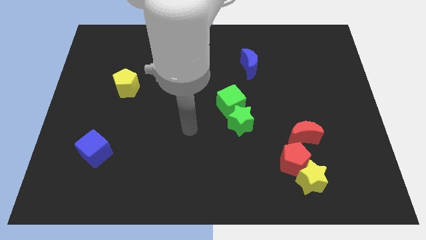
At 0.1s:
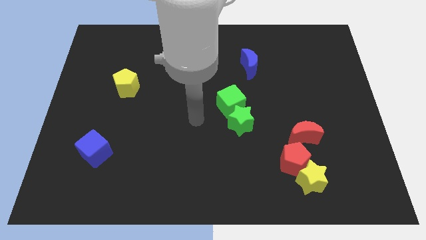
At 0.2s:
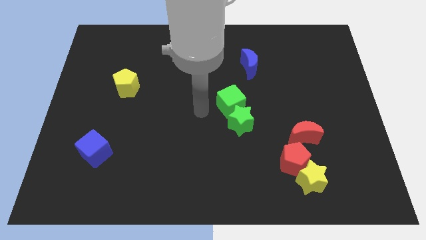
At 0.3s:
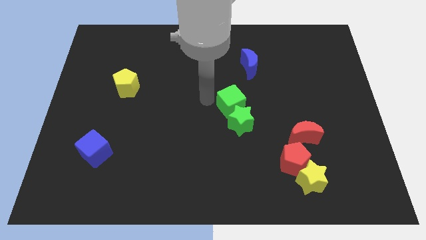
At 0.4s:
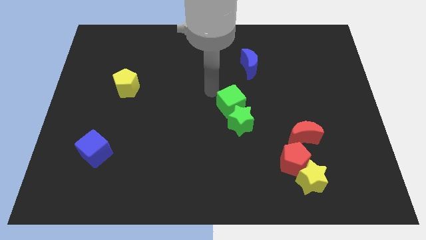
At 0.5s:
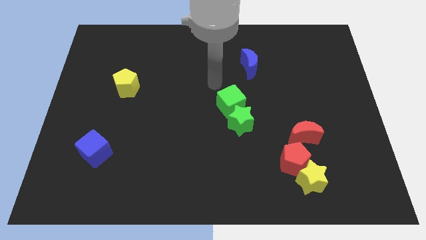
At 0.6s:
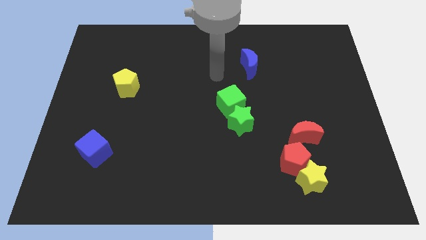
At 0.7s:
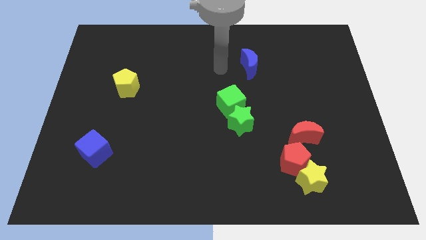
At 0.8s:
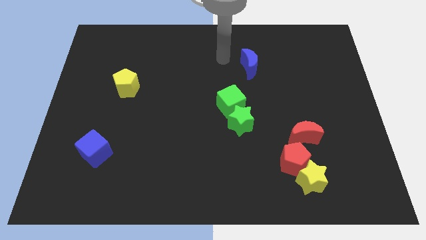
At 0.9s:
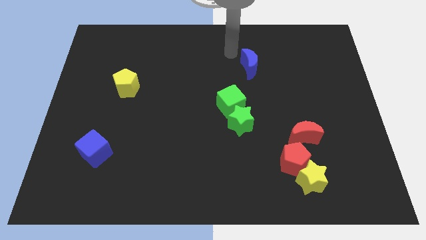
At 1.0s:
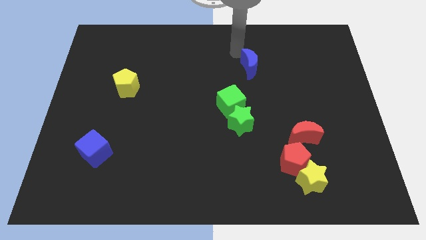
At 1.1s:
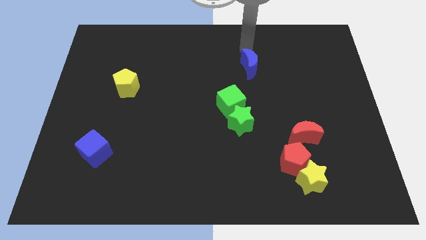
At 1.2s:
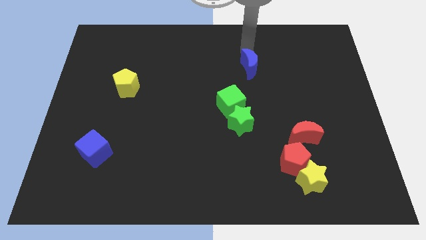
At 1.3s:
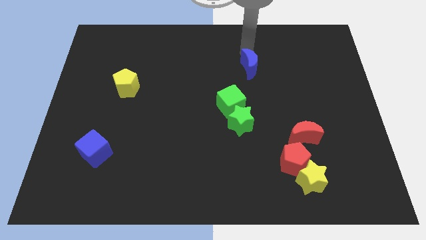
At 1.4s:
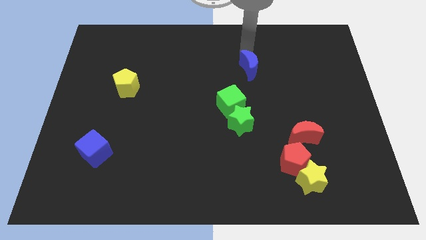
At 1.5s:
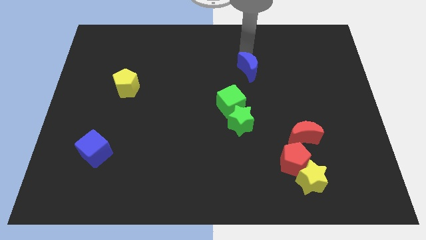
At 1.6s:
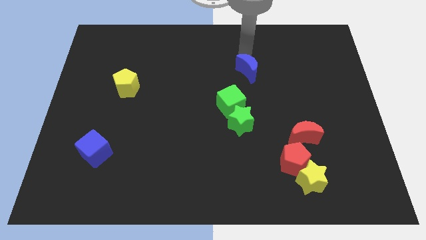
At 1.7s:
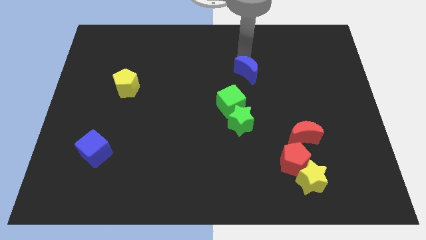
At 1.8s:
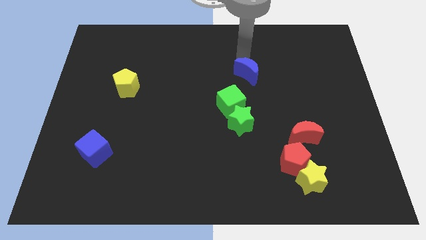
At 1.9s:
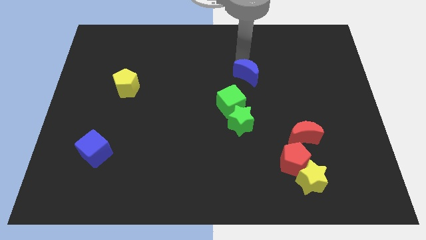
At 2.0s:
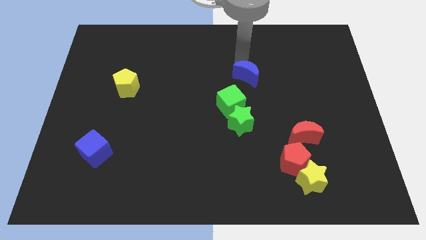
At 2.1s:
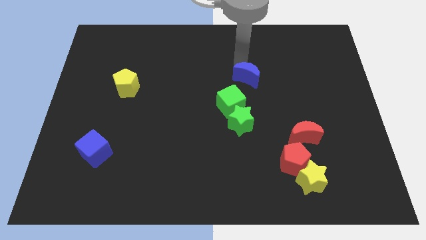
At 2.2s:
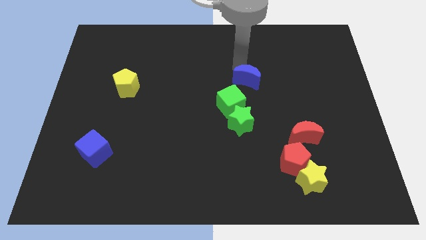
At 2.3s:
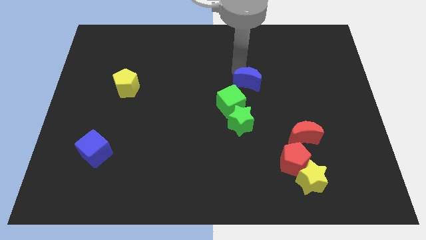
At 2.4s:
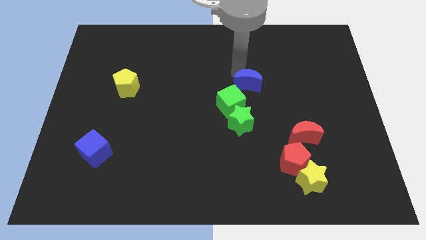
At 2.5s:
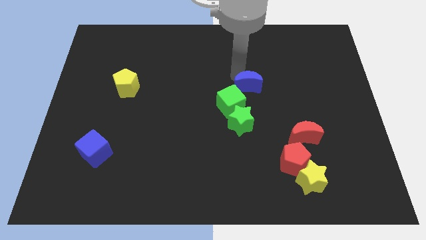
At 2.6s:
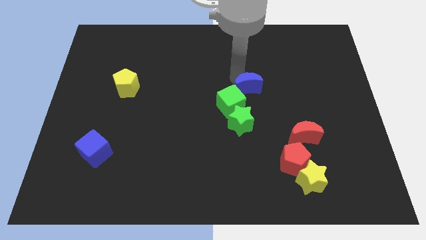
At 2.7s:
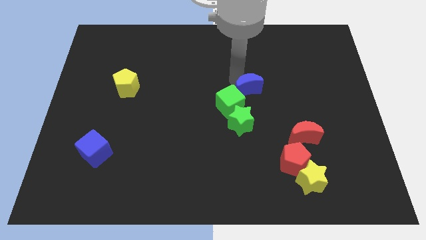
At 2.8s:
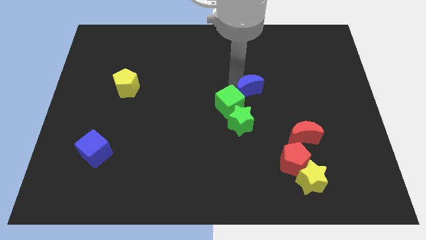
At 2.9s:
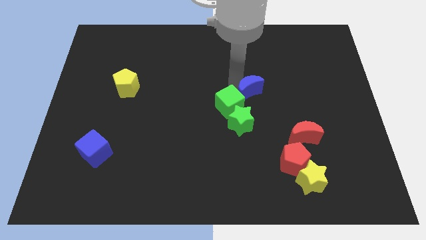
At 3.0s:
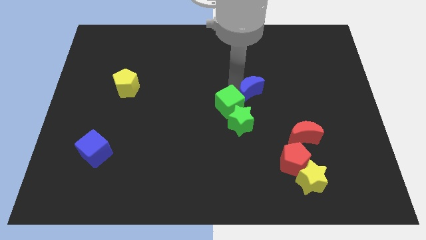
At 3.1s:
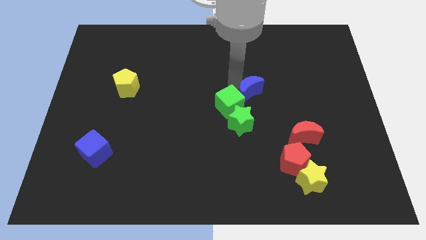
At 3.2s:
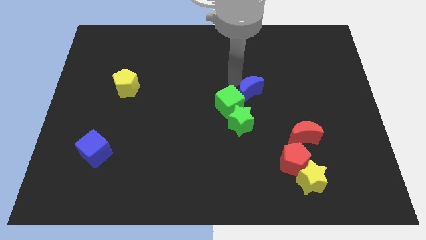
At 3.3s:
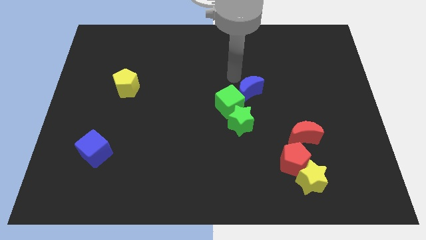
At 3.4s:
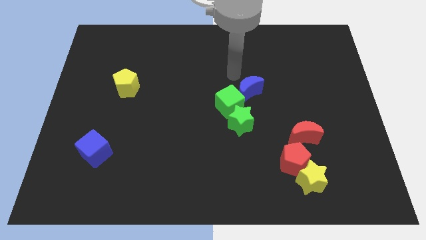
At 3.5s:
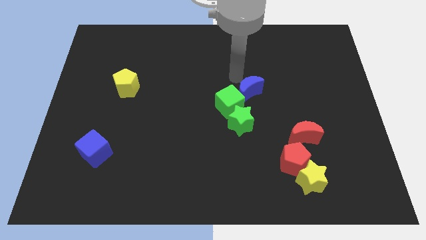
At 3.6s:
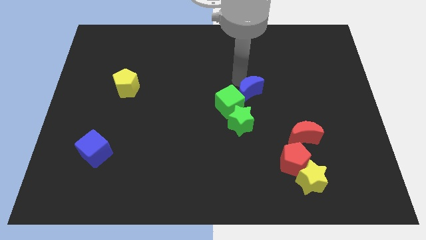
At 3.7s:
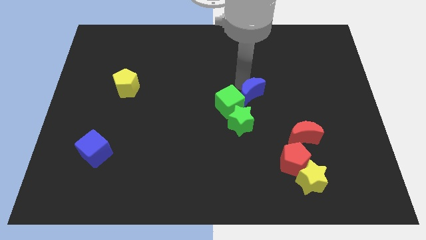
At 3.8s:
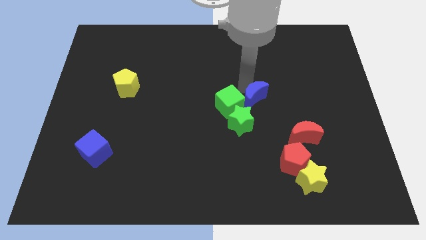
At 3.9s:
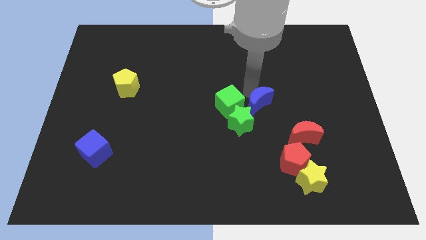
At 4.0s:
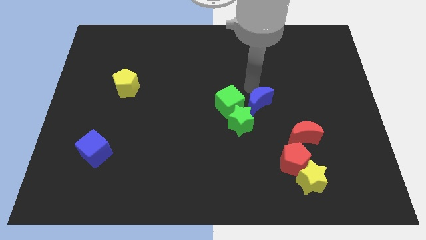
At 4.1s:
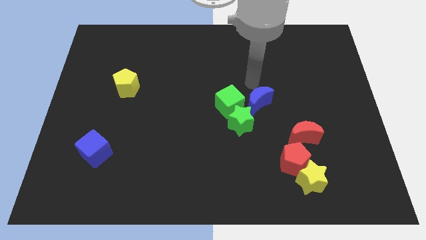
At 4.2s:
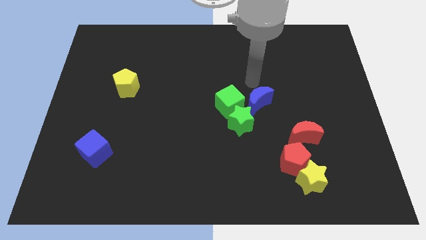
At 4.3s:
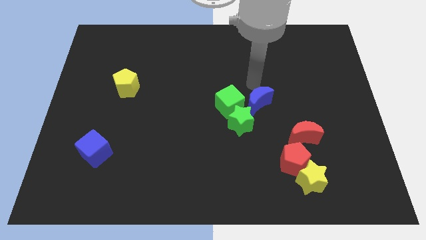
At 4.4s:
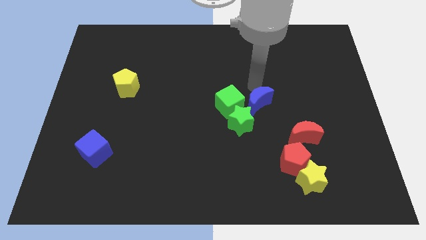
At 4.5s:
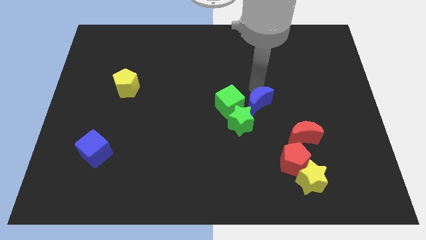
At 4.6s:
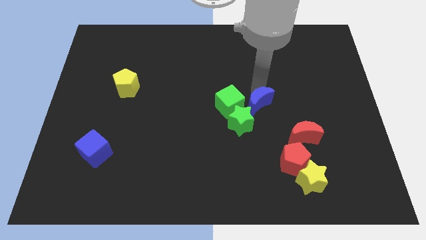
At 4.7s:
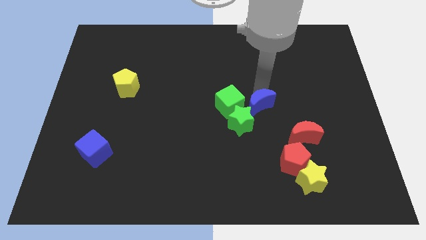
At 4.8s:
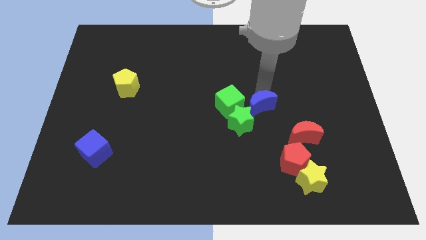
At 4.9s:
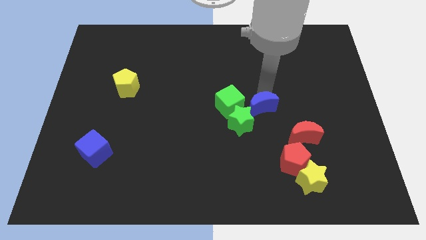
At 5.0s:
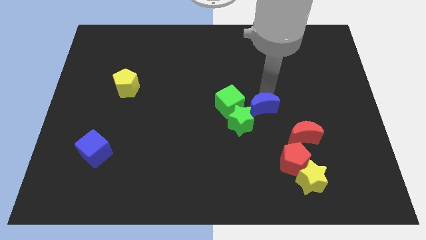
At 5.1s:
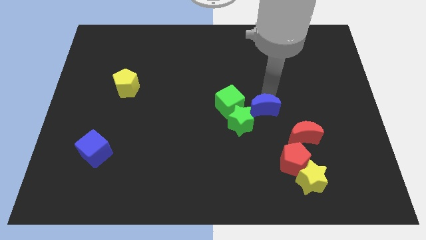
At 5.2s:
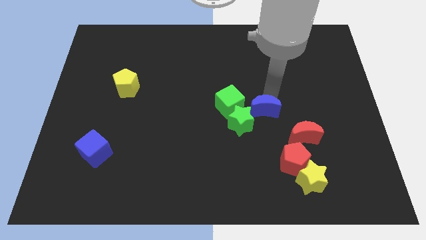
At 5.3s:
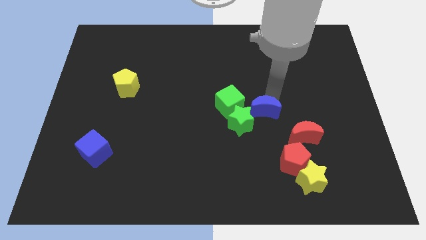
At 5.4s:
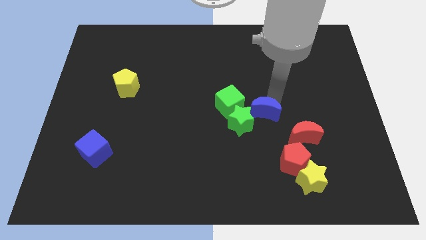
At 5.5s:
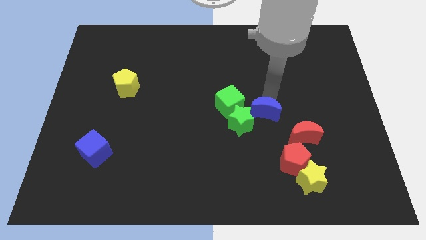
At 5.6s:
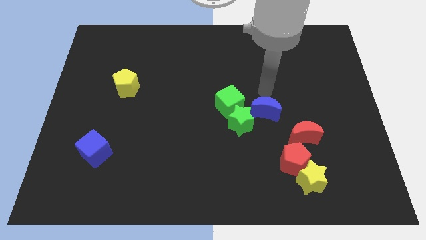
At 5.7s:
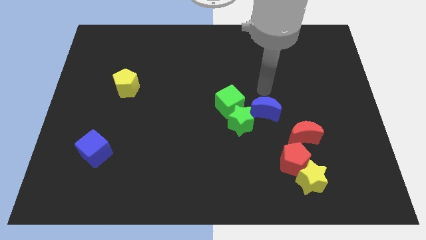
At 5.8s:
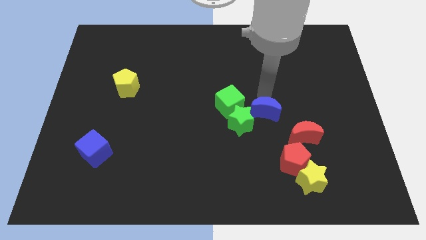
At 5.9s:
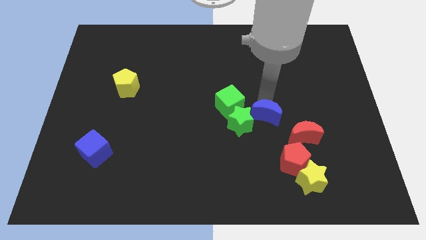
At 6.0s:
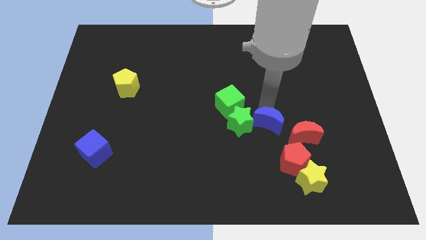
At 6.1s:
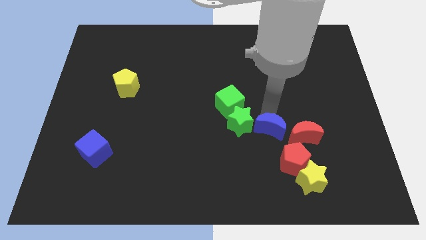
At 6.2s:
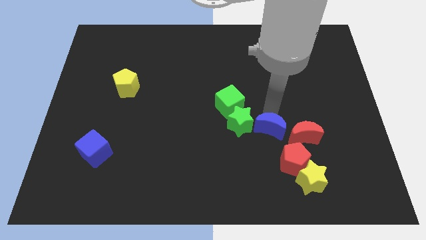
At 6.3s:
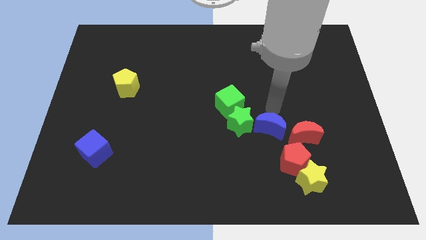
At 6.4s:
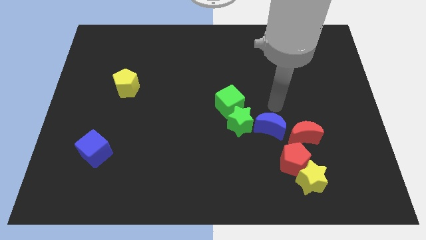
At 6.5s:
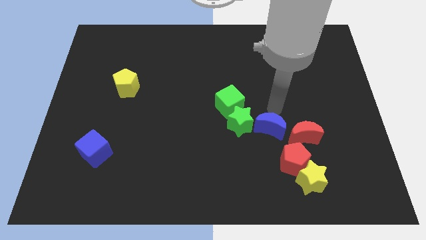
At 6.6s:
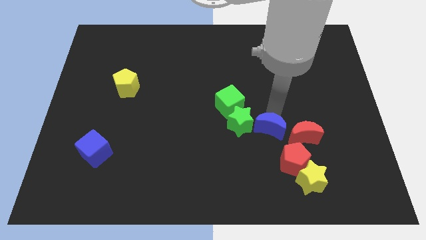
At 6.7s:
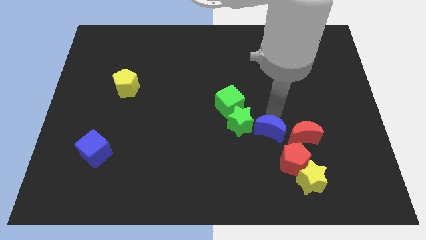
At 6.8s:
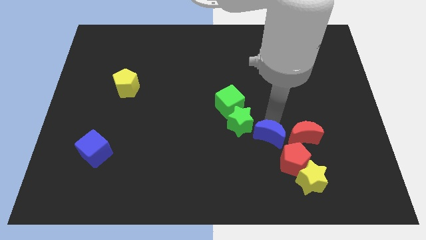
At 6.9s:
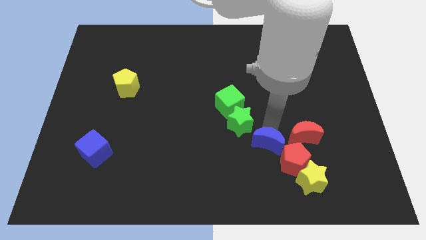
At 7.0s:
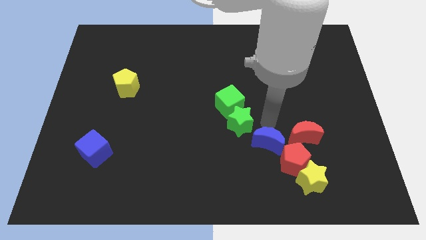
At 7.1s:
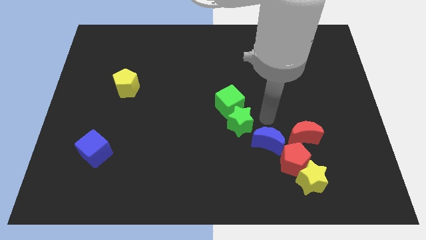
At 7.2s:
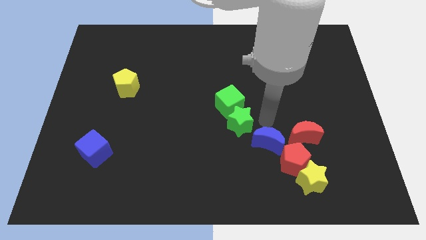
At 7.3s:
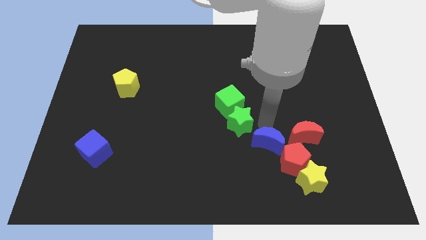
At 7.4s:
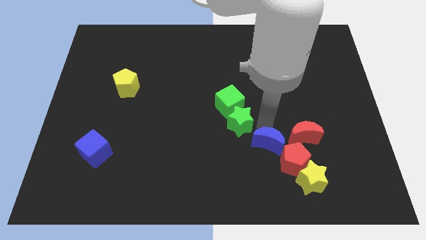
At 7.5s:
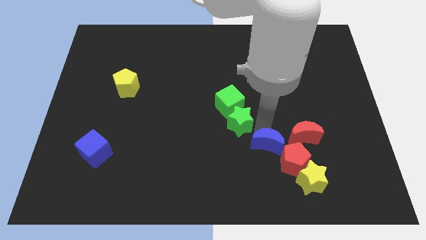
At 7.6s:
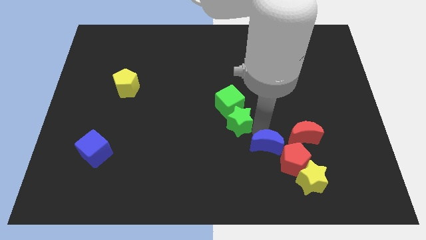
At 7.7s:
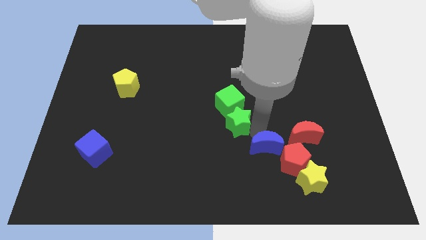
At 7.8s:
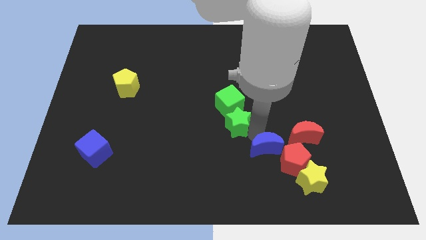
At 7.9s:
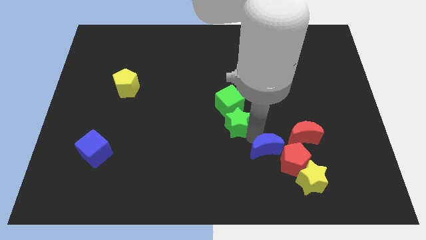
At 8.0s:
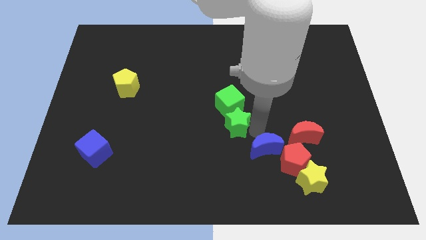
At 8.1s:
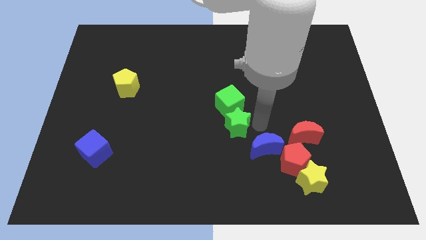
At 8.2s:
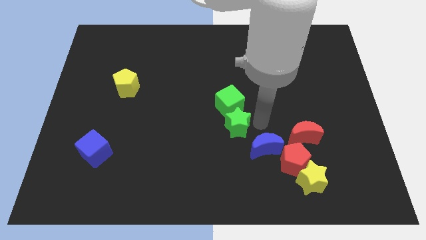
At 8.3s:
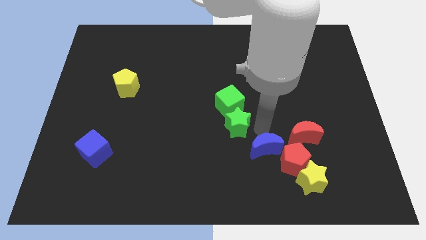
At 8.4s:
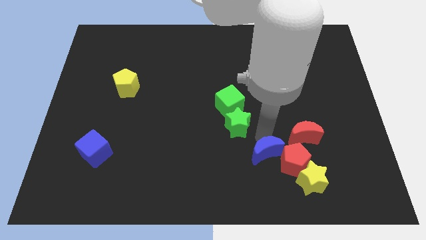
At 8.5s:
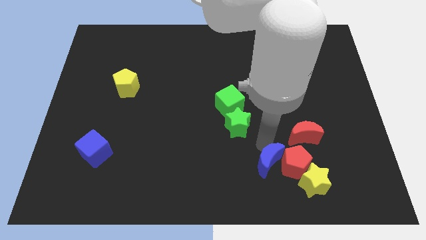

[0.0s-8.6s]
push the blue moon to the bottom left of the red pentagon
